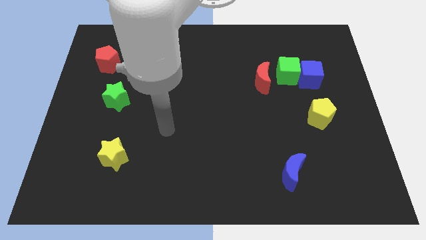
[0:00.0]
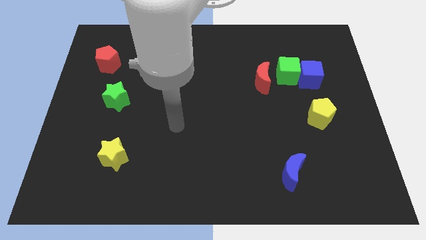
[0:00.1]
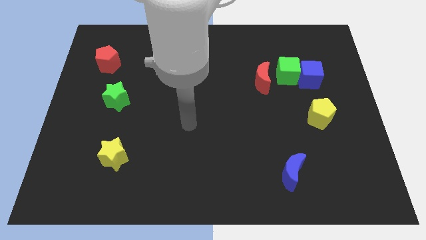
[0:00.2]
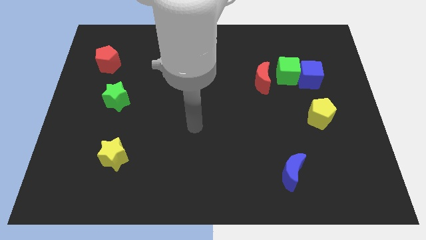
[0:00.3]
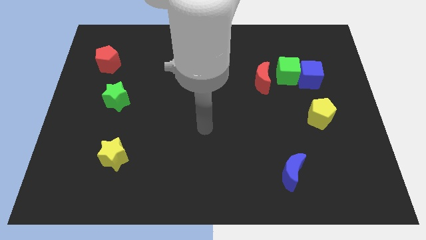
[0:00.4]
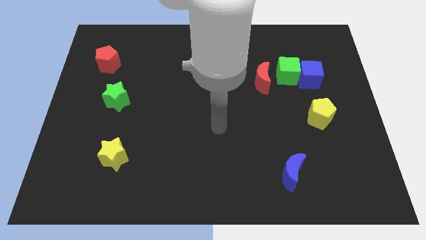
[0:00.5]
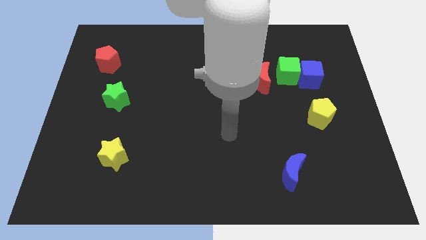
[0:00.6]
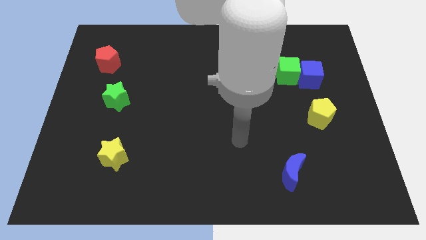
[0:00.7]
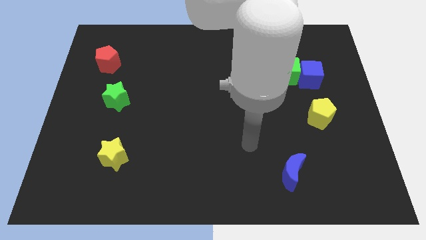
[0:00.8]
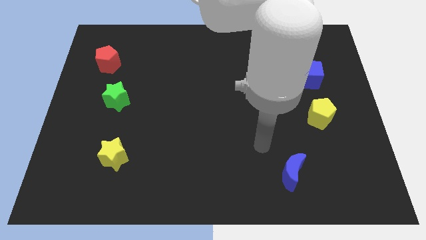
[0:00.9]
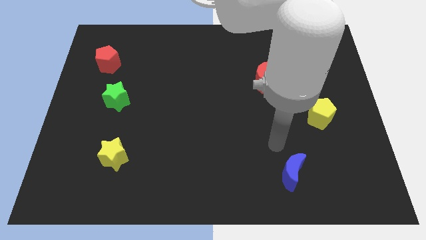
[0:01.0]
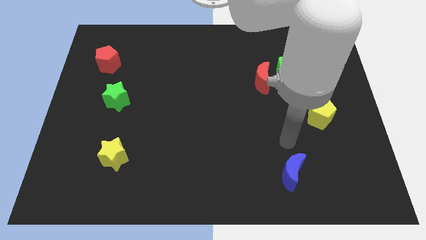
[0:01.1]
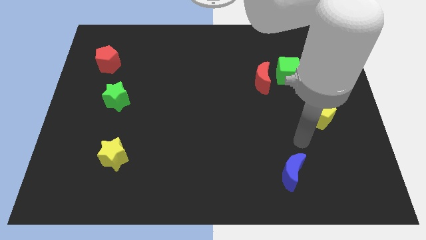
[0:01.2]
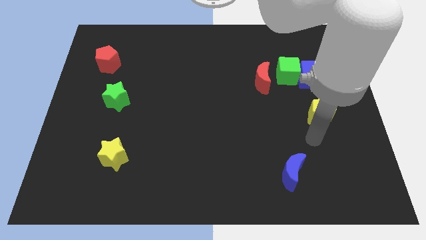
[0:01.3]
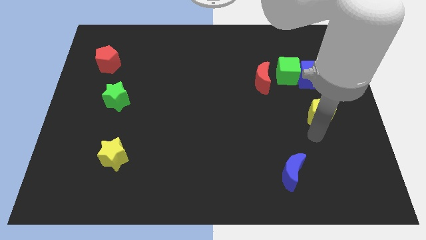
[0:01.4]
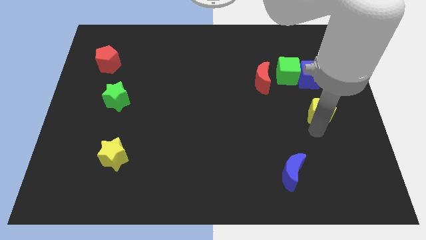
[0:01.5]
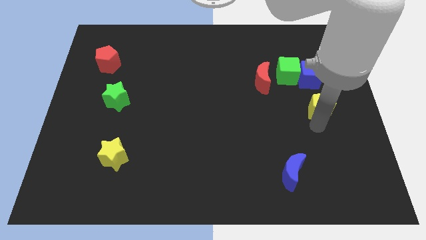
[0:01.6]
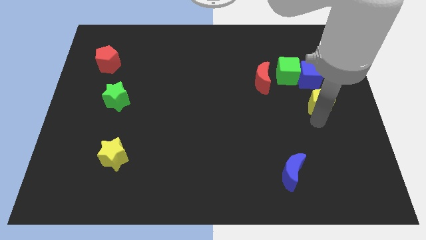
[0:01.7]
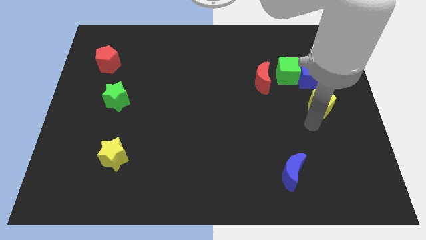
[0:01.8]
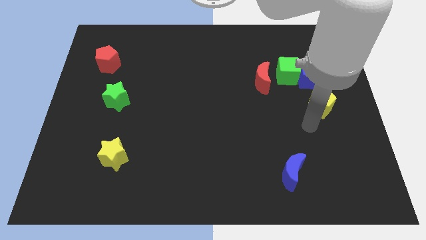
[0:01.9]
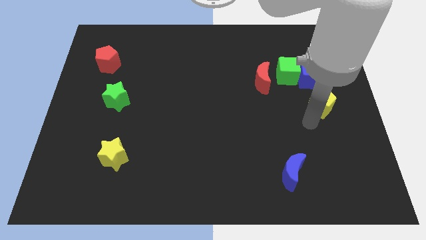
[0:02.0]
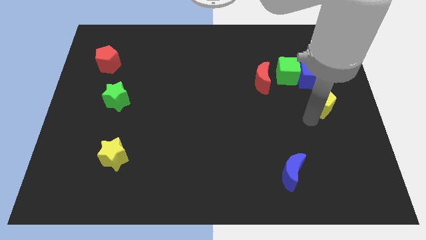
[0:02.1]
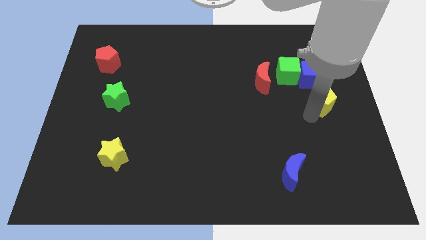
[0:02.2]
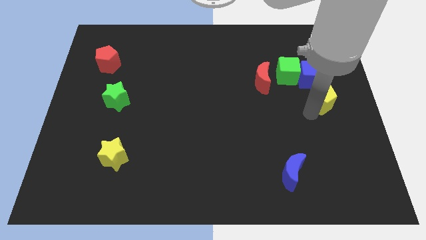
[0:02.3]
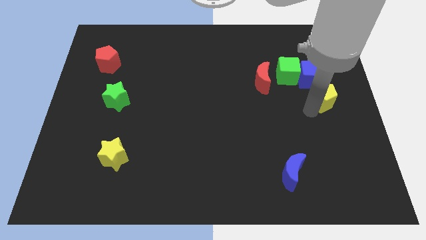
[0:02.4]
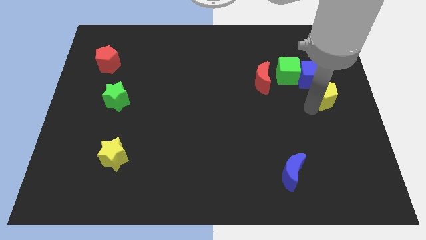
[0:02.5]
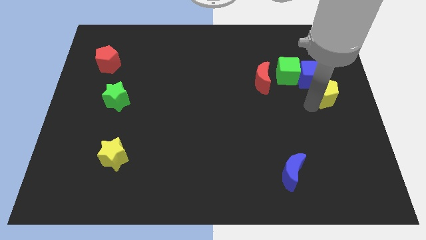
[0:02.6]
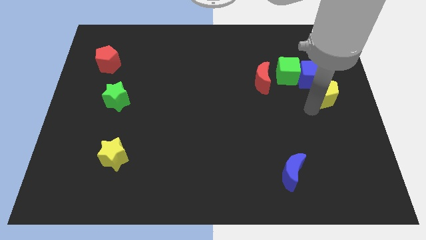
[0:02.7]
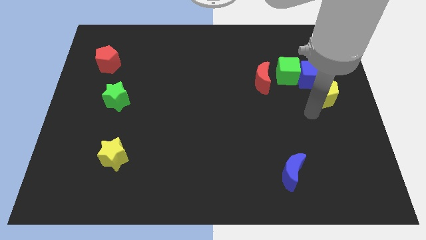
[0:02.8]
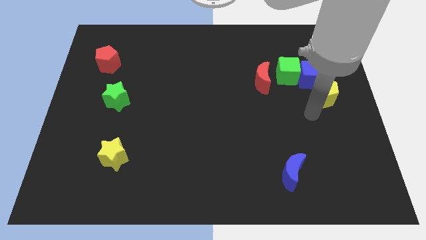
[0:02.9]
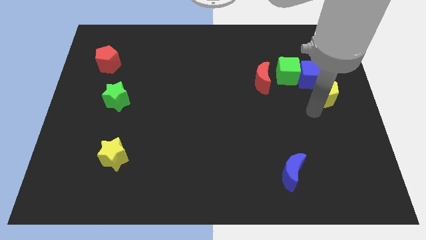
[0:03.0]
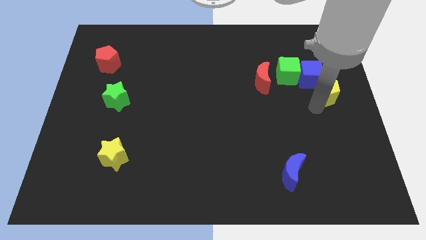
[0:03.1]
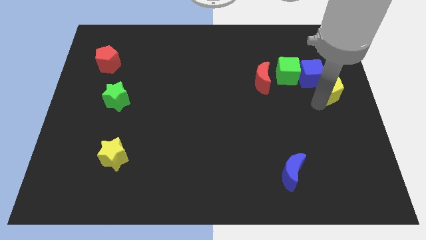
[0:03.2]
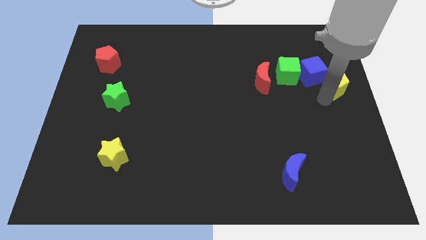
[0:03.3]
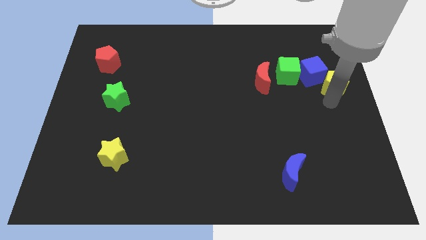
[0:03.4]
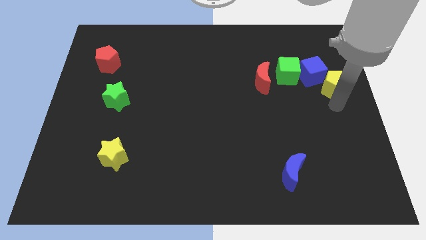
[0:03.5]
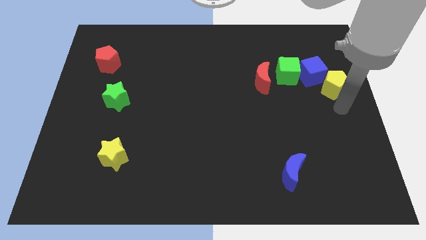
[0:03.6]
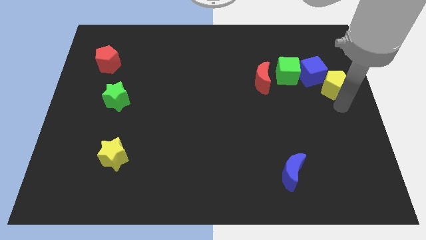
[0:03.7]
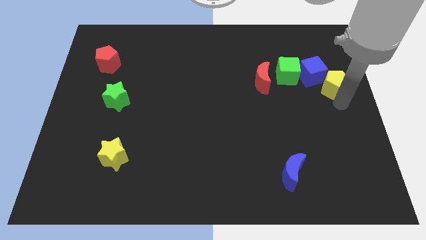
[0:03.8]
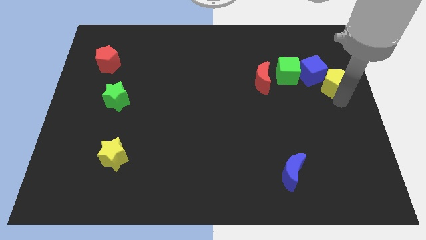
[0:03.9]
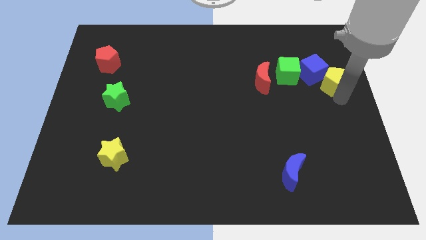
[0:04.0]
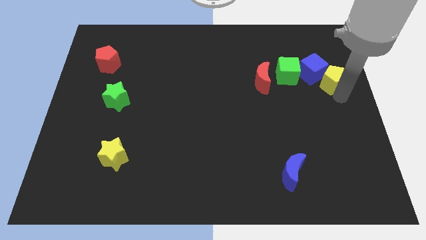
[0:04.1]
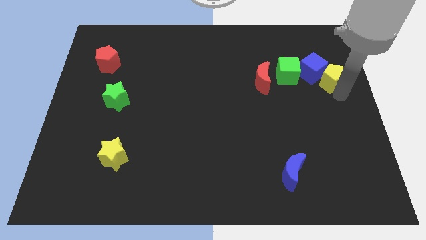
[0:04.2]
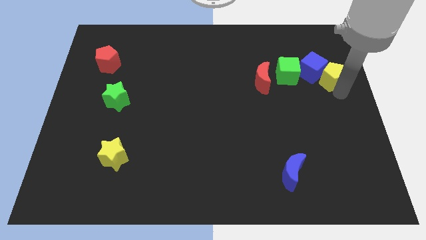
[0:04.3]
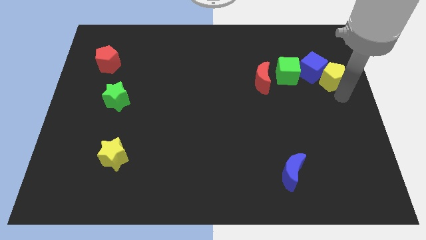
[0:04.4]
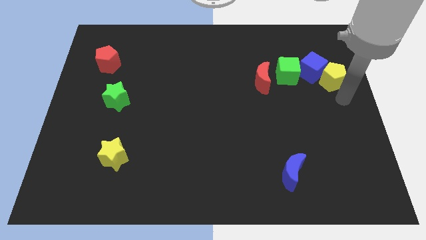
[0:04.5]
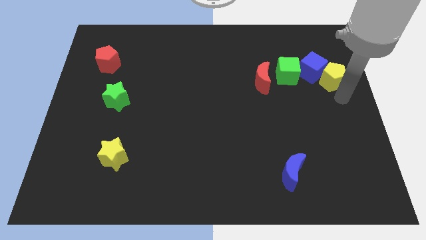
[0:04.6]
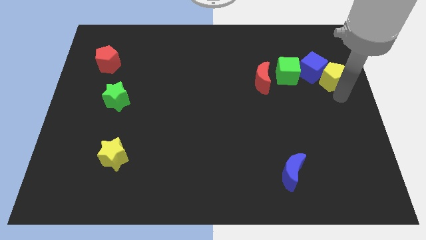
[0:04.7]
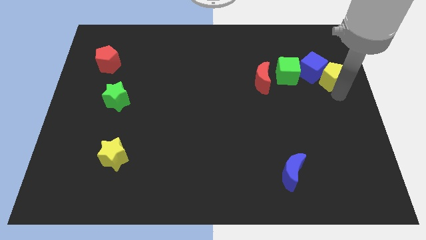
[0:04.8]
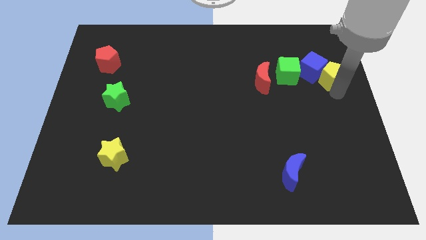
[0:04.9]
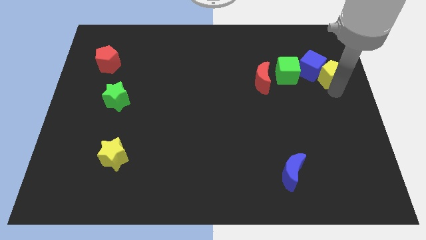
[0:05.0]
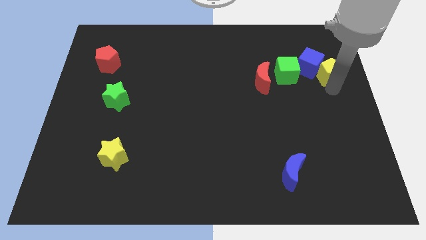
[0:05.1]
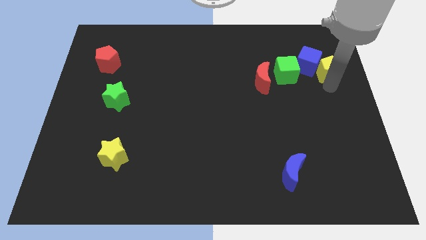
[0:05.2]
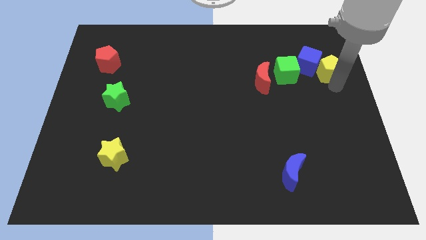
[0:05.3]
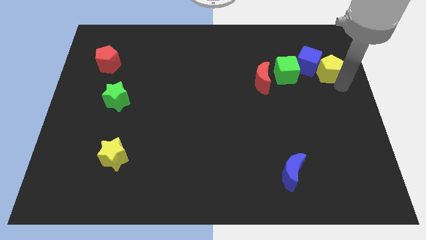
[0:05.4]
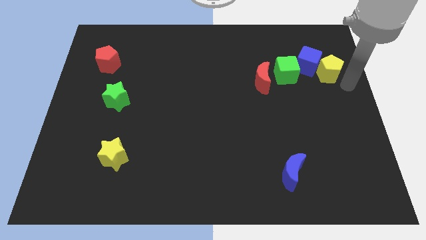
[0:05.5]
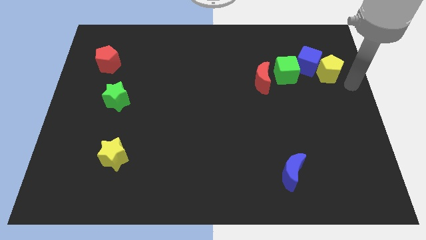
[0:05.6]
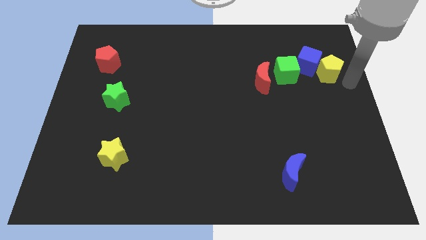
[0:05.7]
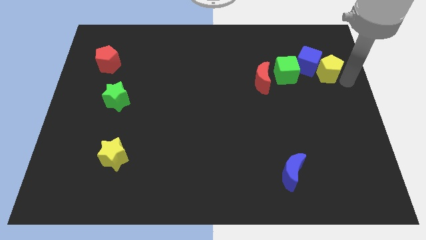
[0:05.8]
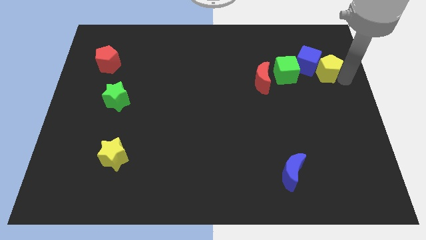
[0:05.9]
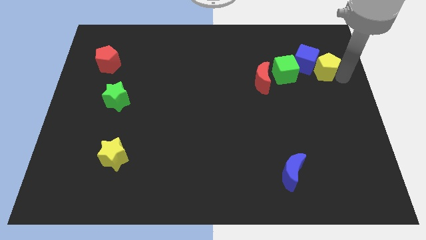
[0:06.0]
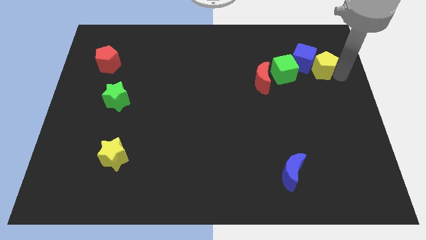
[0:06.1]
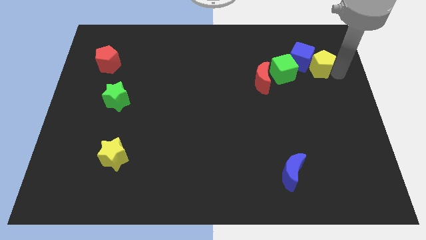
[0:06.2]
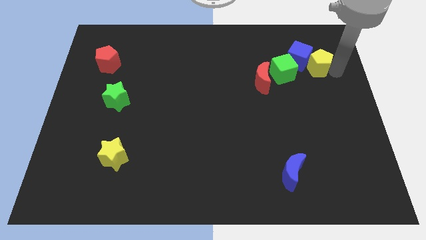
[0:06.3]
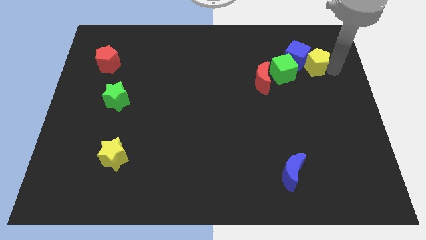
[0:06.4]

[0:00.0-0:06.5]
move the yellow pentagon to the top right of the green cube
